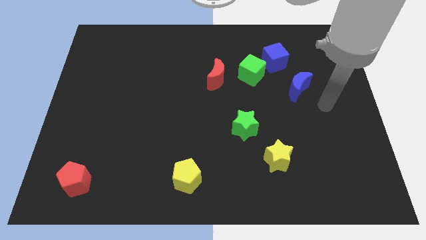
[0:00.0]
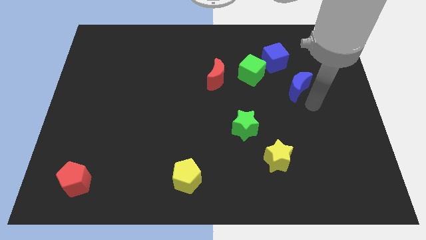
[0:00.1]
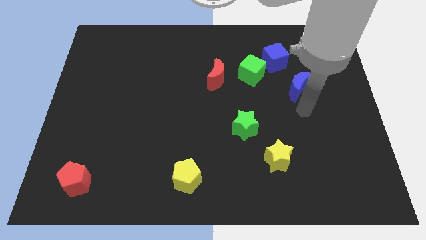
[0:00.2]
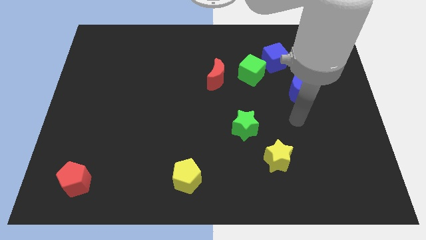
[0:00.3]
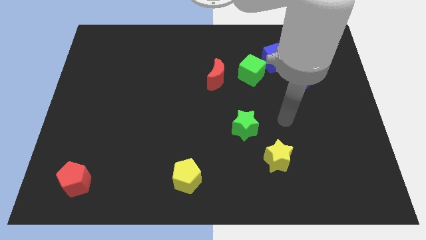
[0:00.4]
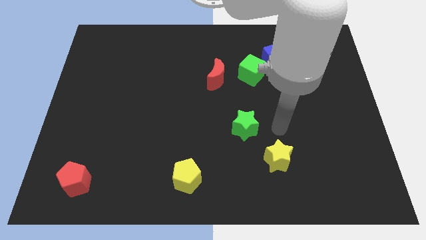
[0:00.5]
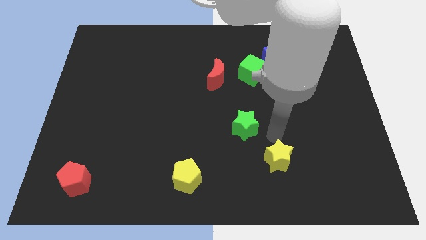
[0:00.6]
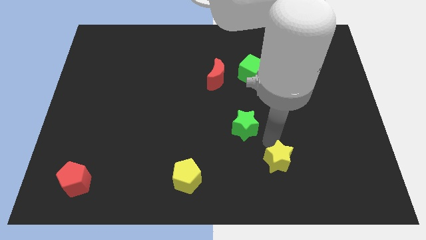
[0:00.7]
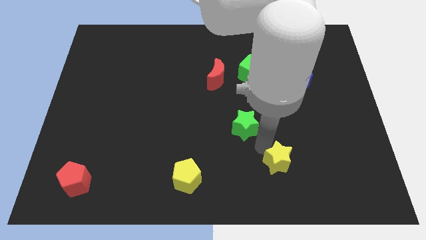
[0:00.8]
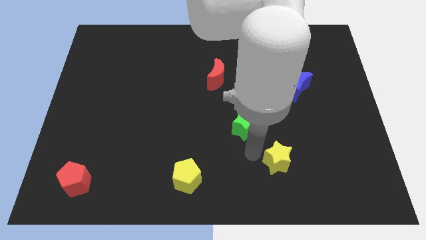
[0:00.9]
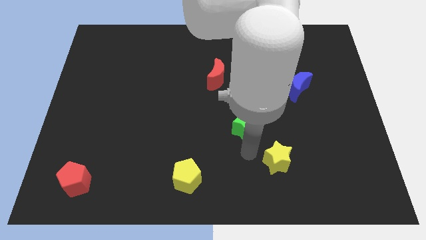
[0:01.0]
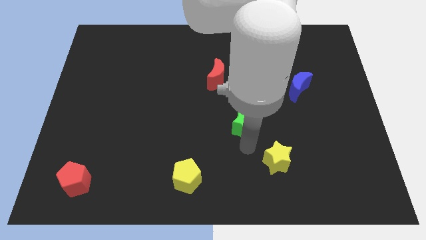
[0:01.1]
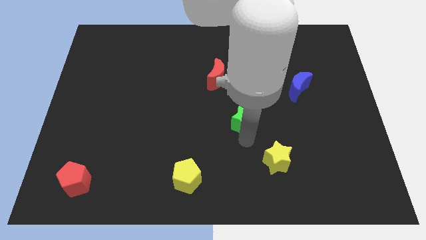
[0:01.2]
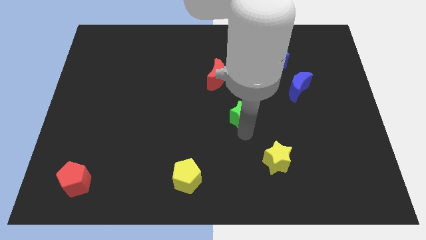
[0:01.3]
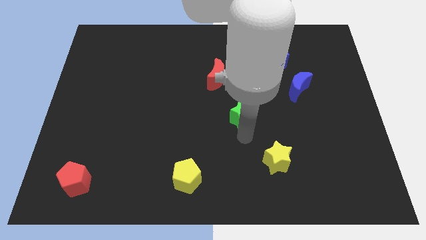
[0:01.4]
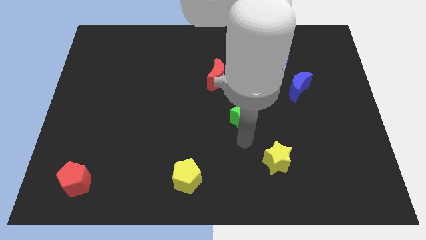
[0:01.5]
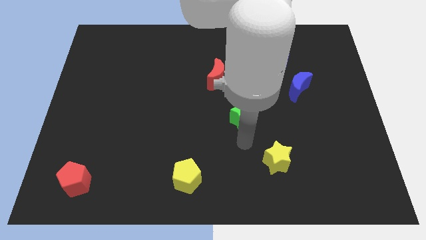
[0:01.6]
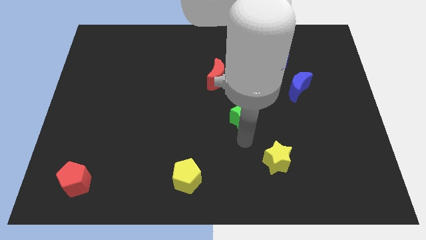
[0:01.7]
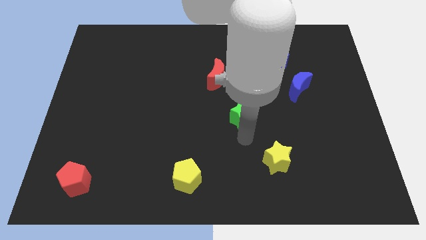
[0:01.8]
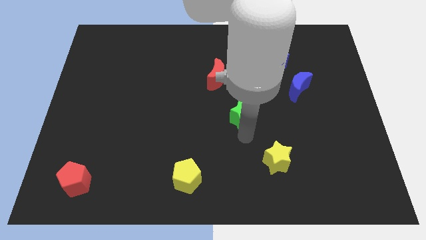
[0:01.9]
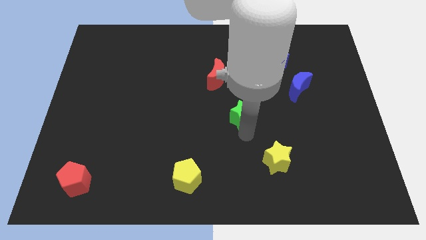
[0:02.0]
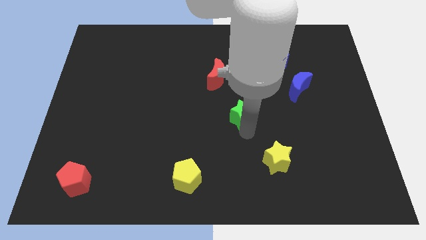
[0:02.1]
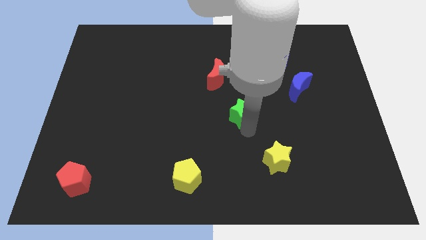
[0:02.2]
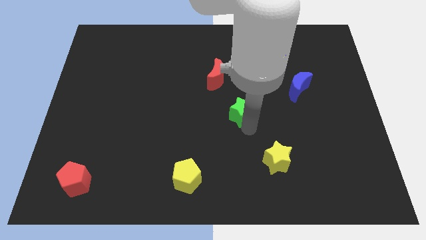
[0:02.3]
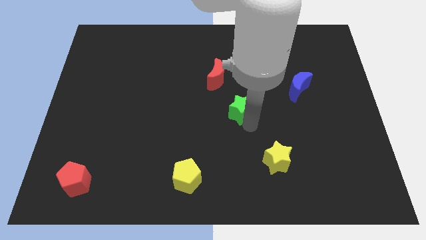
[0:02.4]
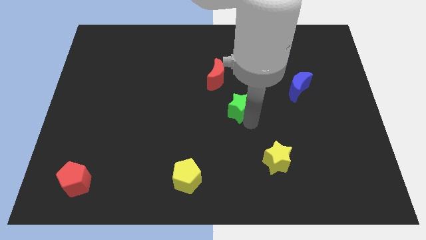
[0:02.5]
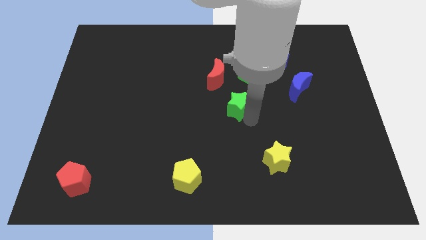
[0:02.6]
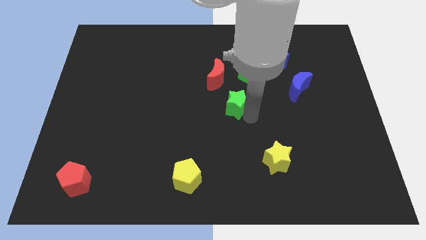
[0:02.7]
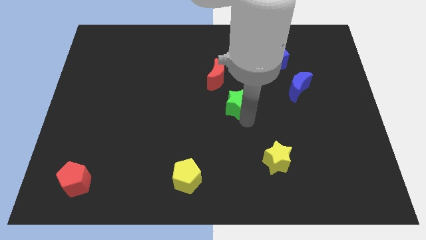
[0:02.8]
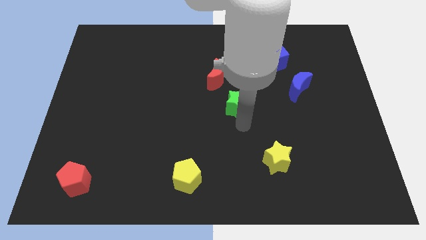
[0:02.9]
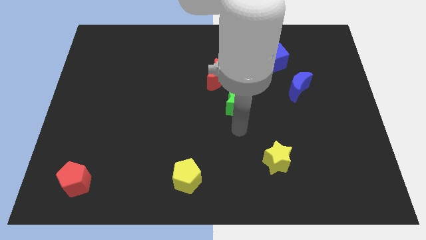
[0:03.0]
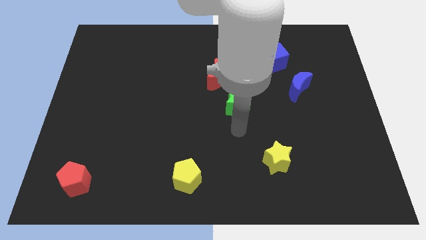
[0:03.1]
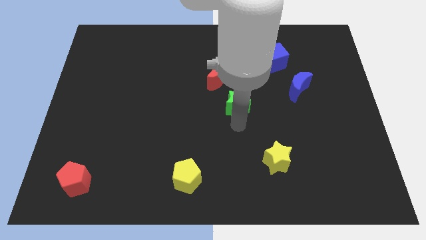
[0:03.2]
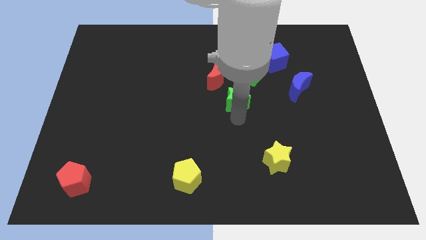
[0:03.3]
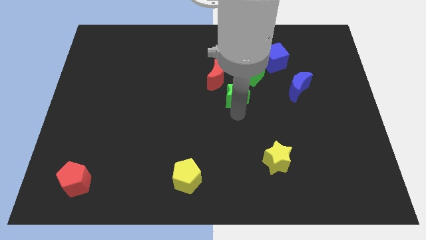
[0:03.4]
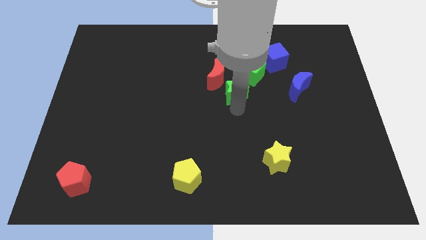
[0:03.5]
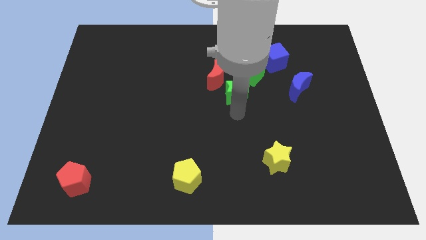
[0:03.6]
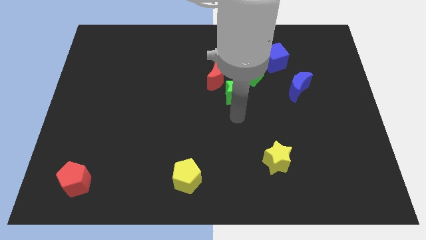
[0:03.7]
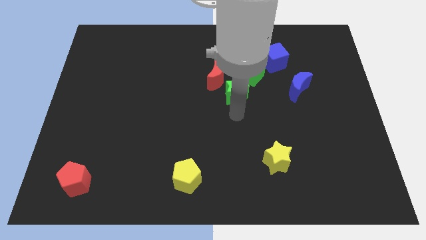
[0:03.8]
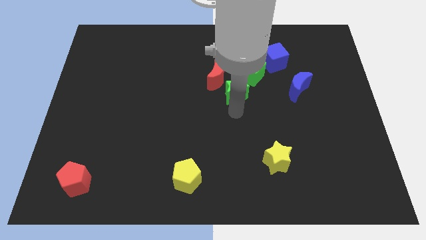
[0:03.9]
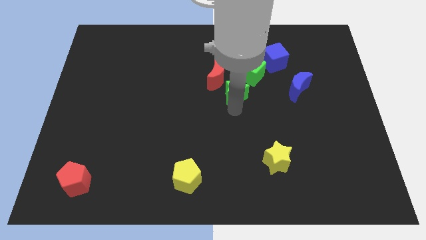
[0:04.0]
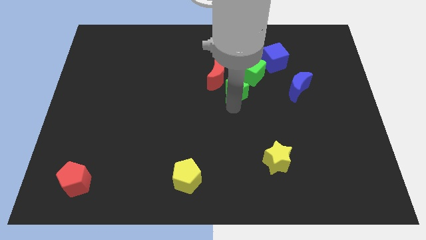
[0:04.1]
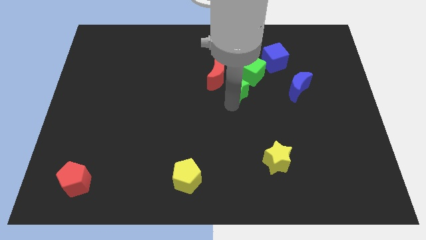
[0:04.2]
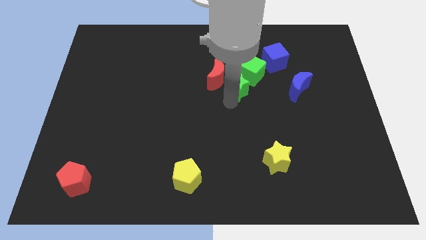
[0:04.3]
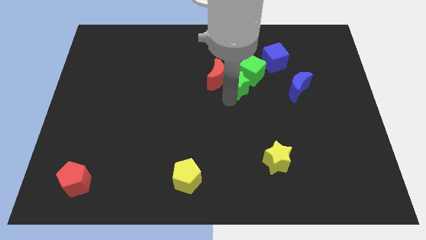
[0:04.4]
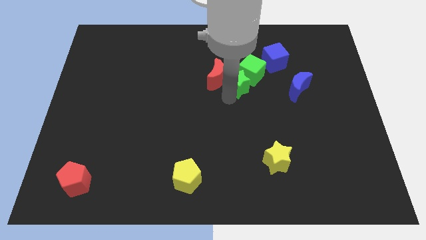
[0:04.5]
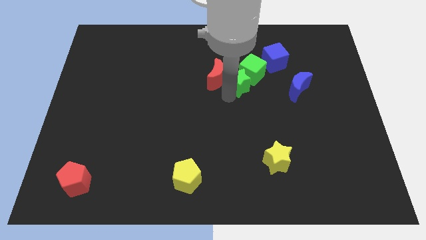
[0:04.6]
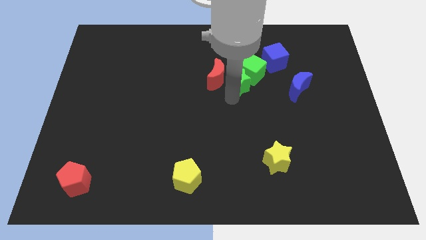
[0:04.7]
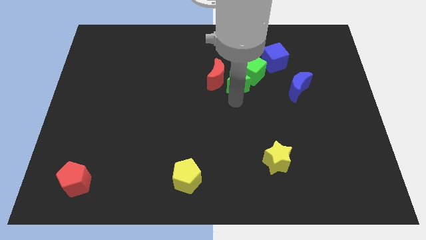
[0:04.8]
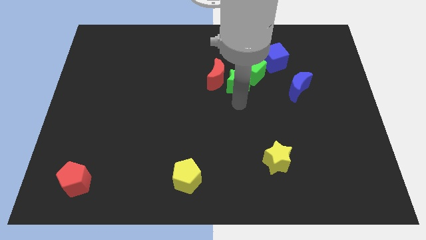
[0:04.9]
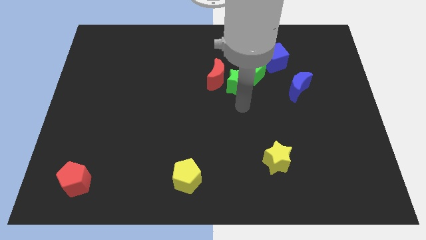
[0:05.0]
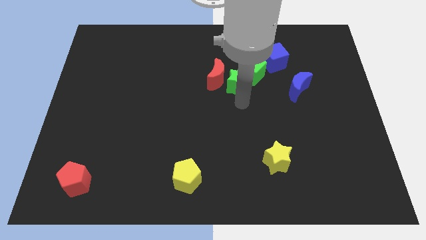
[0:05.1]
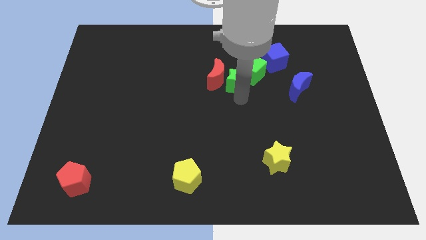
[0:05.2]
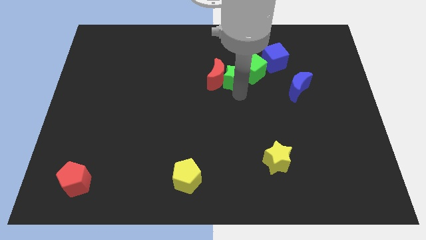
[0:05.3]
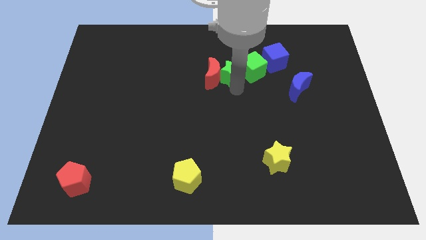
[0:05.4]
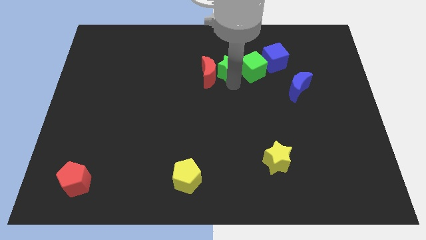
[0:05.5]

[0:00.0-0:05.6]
put the green star just left of the blue cube

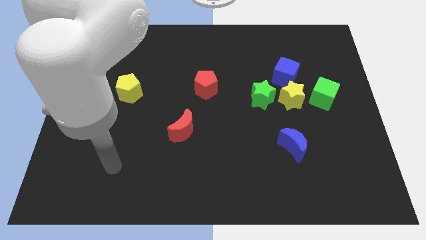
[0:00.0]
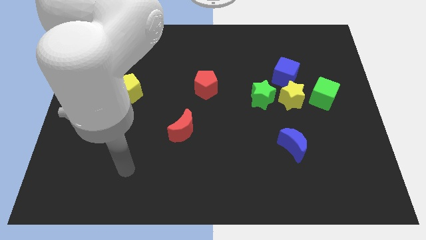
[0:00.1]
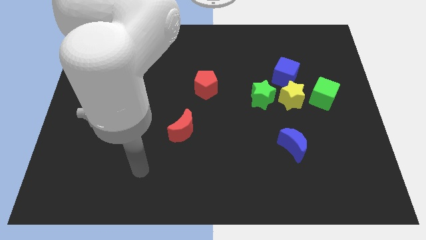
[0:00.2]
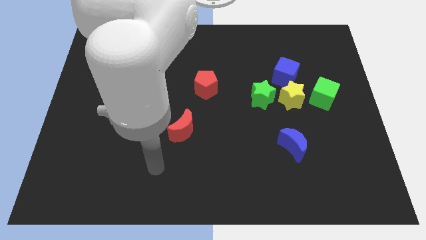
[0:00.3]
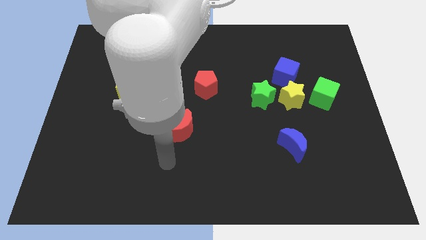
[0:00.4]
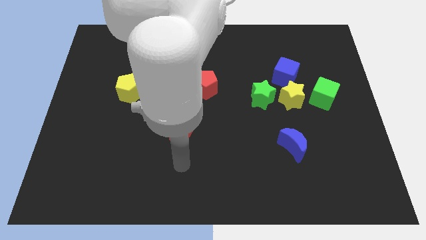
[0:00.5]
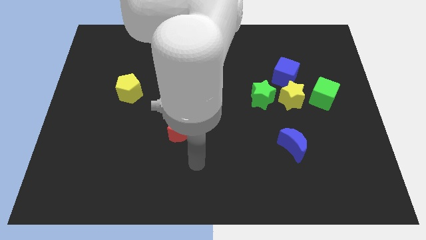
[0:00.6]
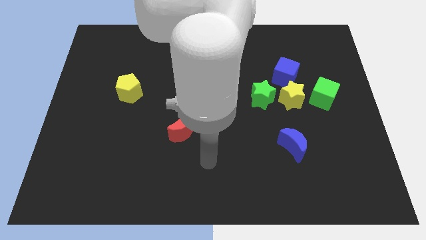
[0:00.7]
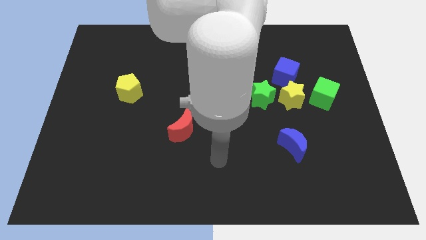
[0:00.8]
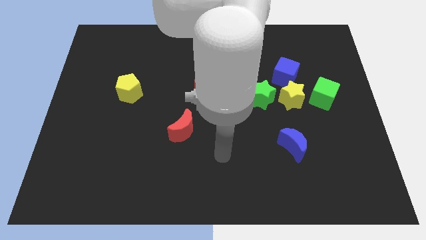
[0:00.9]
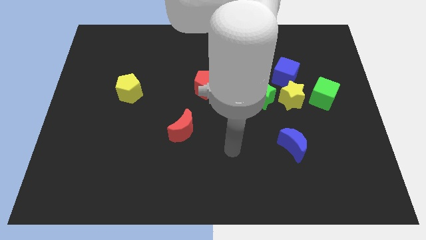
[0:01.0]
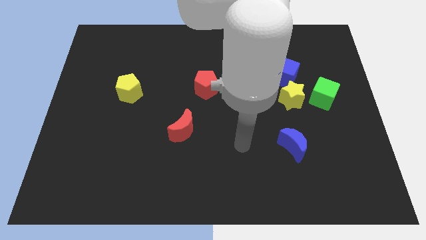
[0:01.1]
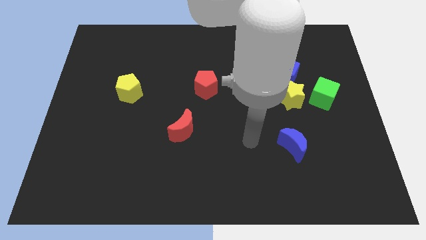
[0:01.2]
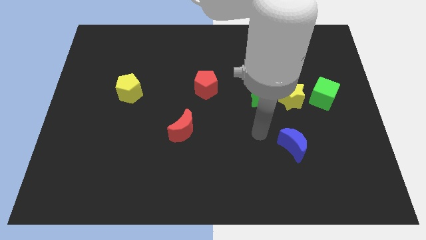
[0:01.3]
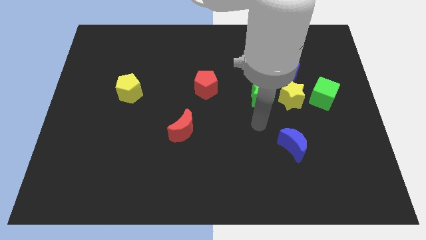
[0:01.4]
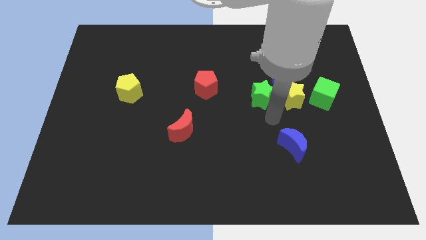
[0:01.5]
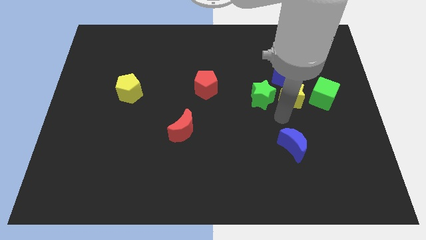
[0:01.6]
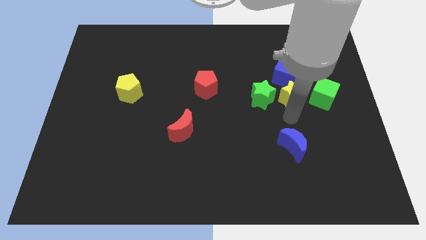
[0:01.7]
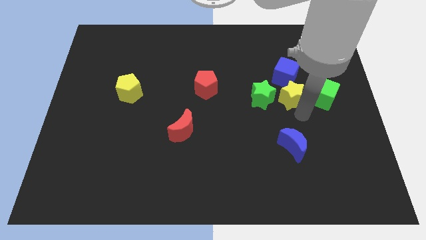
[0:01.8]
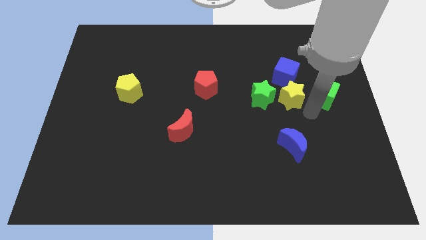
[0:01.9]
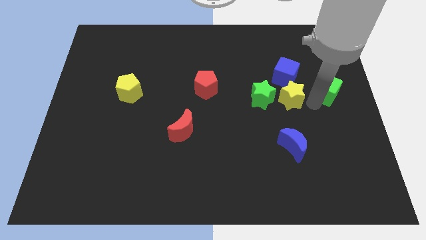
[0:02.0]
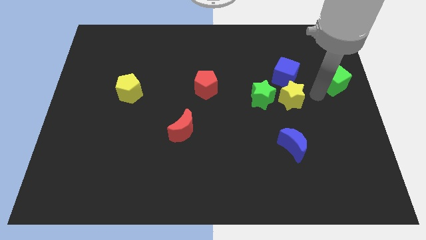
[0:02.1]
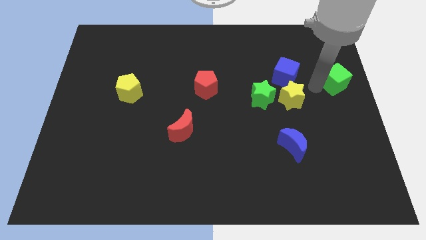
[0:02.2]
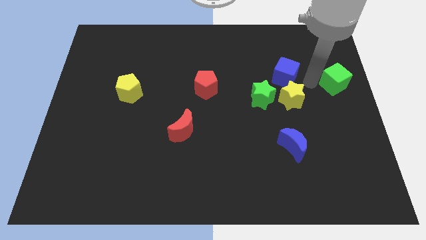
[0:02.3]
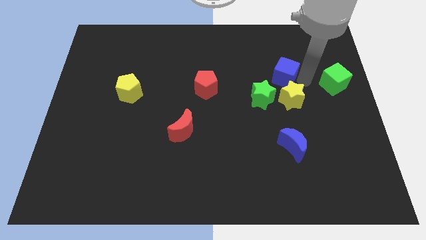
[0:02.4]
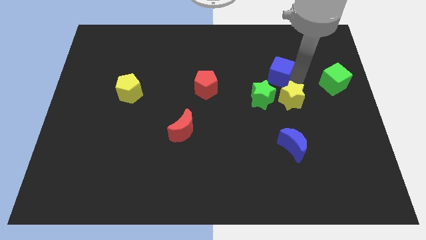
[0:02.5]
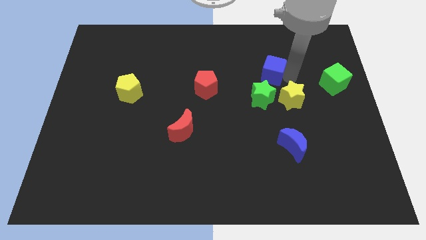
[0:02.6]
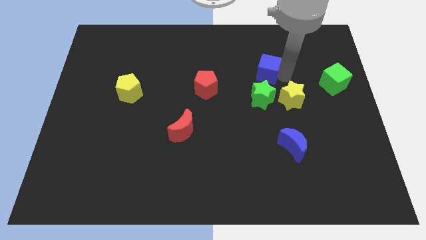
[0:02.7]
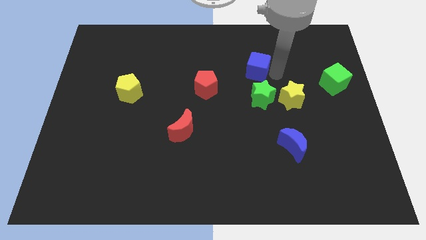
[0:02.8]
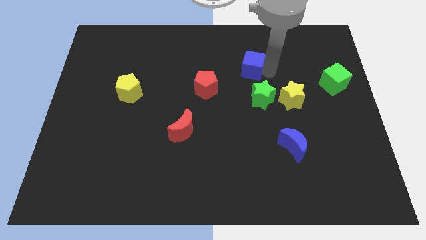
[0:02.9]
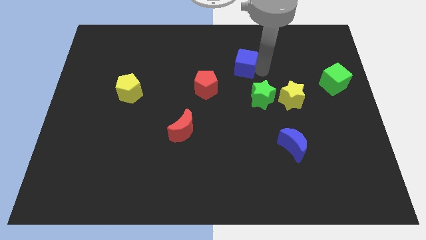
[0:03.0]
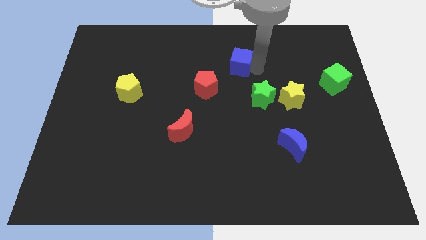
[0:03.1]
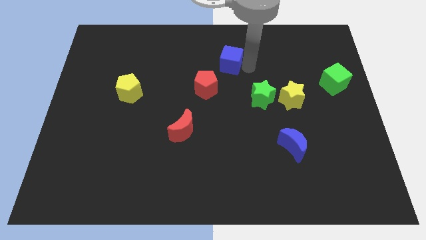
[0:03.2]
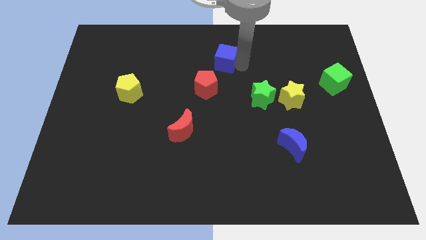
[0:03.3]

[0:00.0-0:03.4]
push the blue cube to the top of the red pentagon
